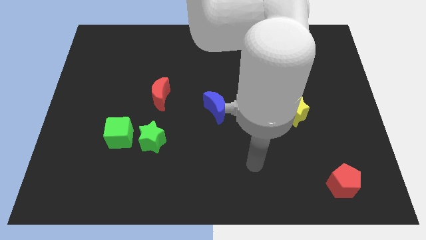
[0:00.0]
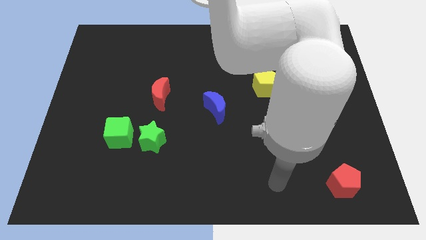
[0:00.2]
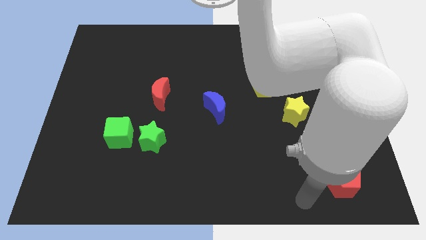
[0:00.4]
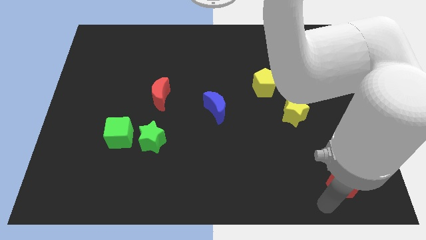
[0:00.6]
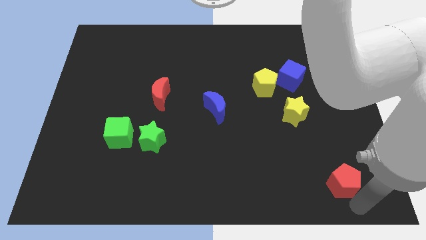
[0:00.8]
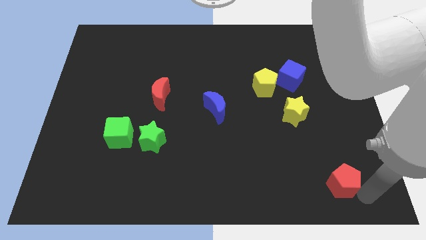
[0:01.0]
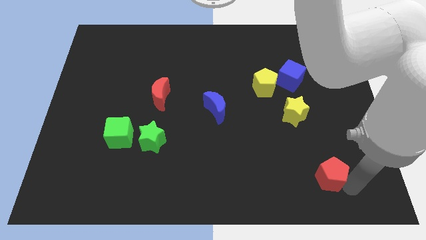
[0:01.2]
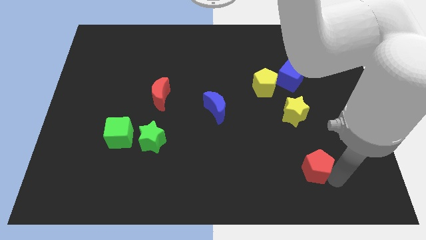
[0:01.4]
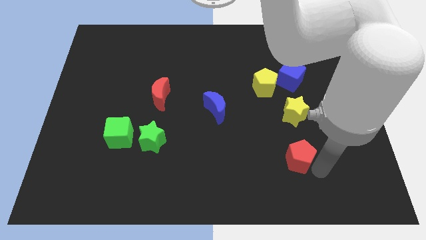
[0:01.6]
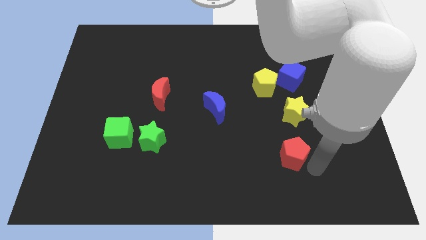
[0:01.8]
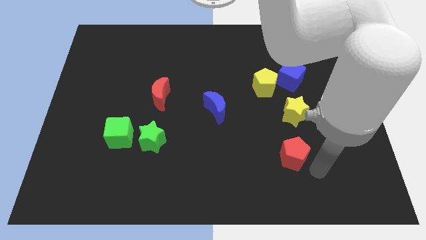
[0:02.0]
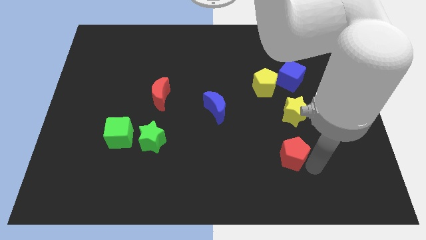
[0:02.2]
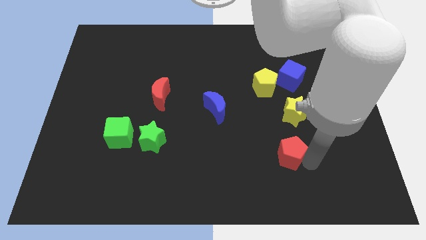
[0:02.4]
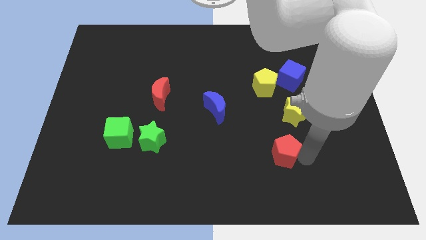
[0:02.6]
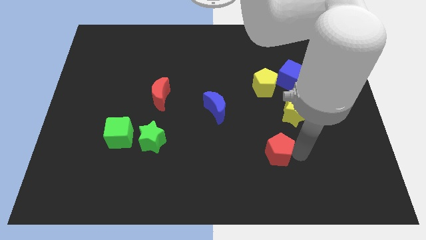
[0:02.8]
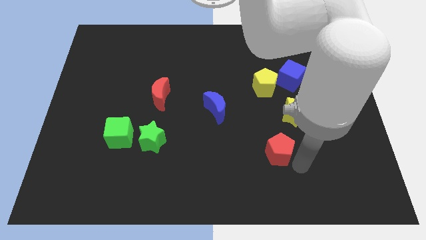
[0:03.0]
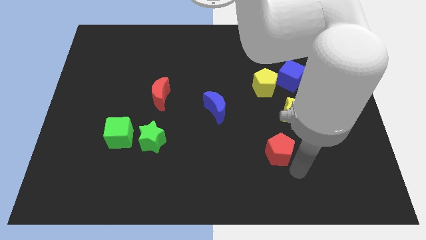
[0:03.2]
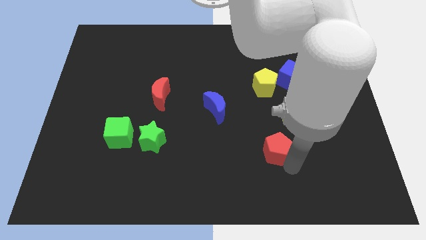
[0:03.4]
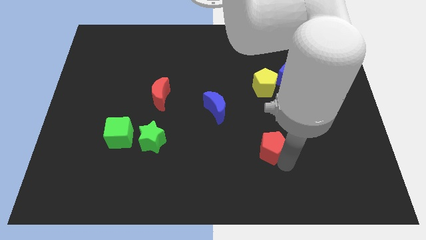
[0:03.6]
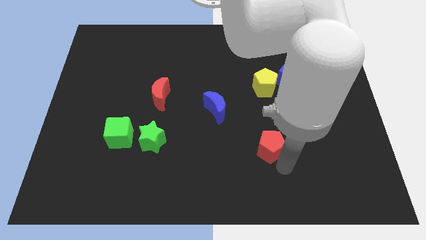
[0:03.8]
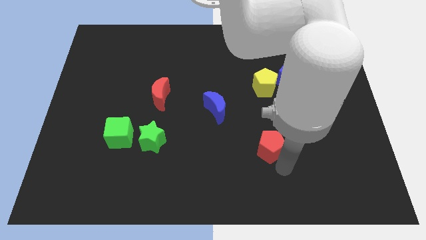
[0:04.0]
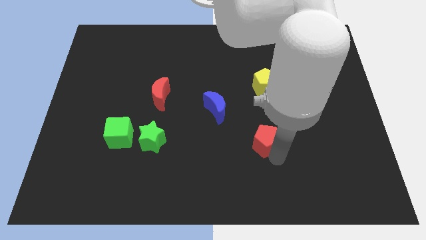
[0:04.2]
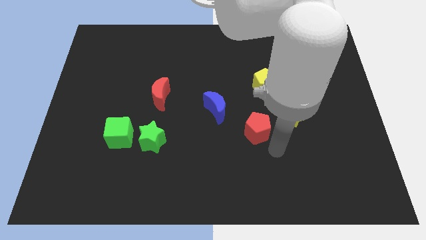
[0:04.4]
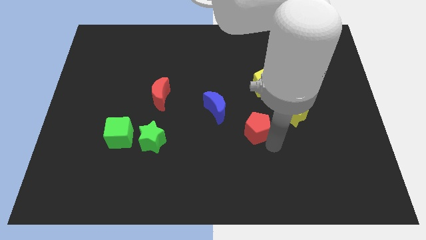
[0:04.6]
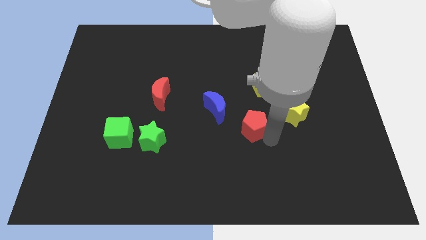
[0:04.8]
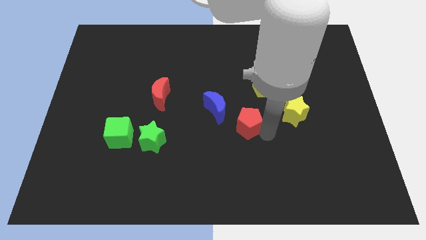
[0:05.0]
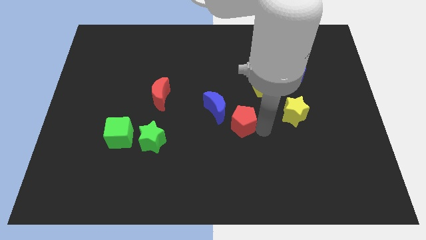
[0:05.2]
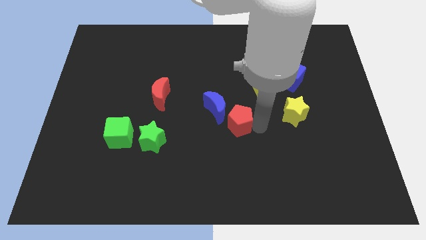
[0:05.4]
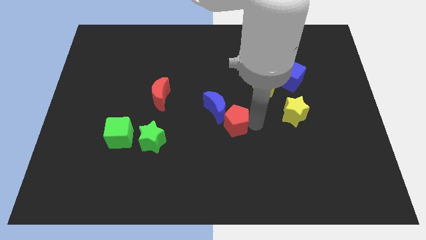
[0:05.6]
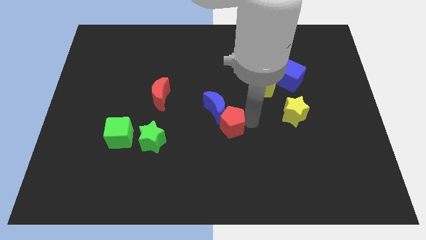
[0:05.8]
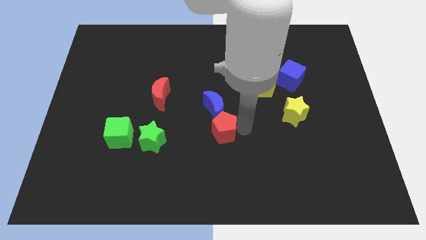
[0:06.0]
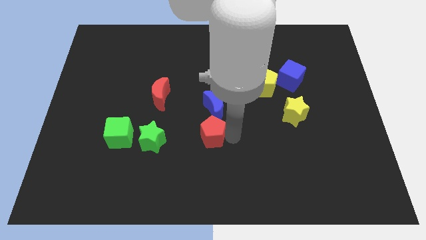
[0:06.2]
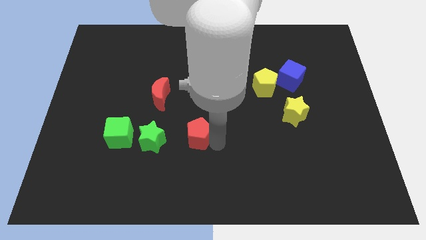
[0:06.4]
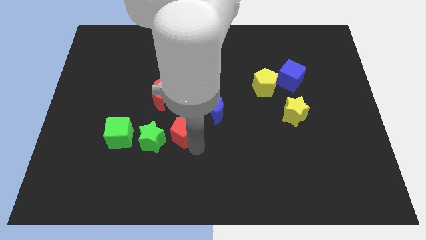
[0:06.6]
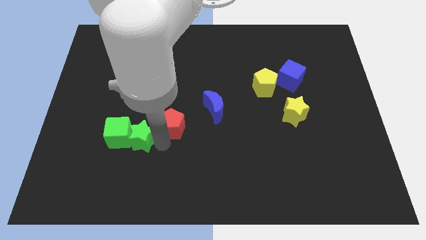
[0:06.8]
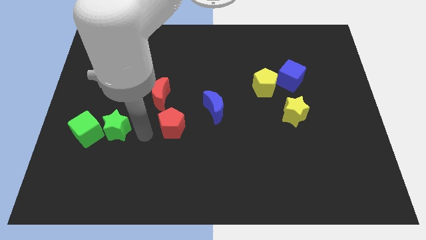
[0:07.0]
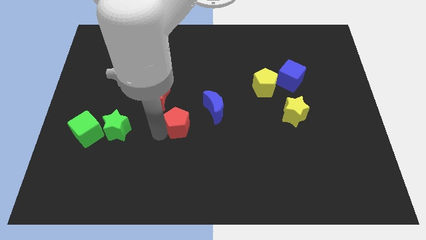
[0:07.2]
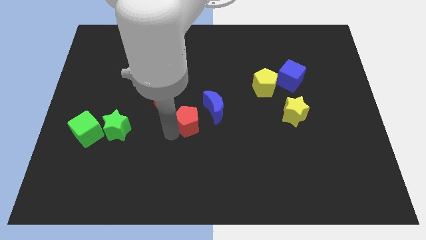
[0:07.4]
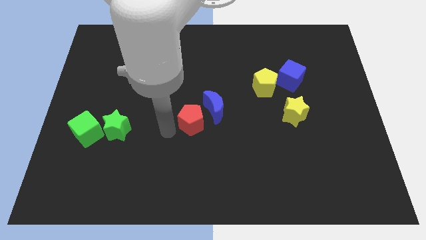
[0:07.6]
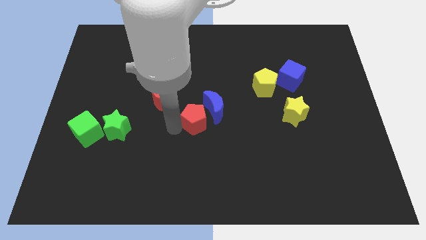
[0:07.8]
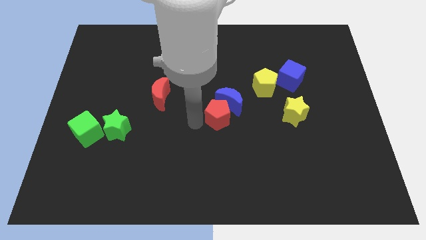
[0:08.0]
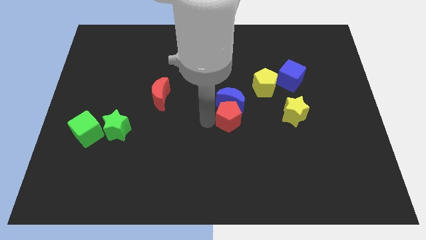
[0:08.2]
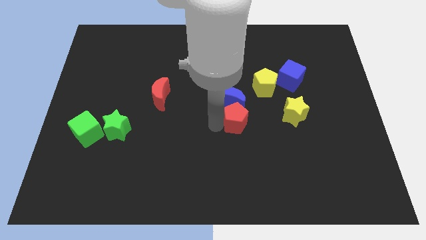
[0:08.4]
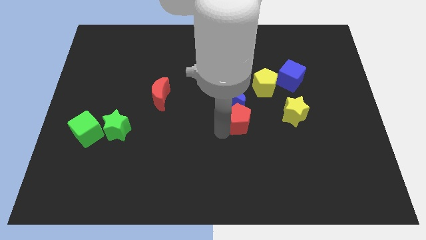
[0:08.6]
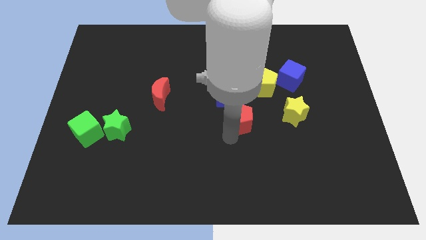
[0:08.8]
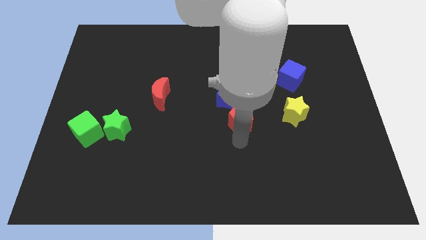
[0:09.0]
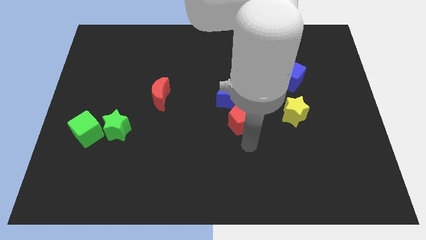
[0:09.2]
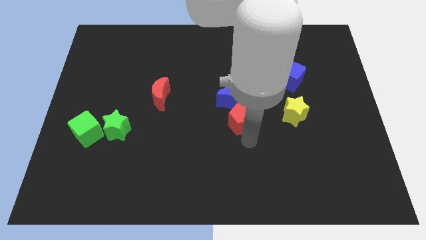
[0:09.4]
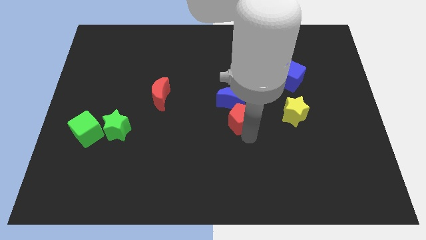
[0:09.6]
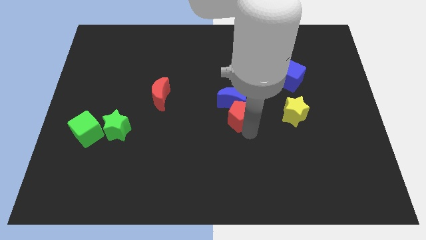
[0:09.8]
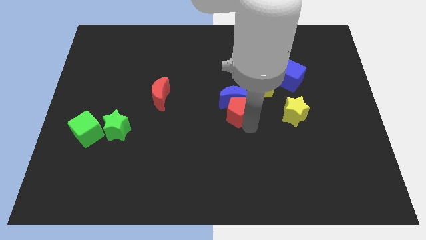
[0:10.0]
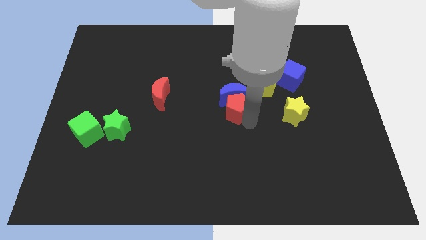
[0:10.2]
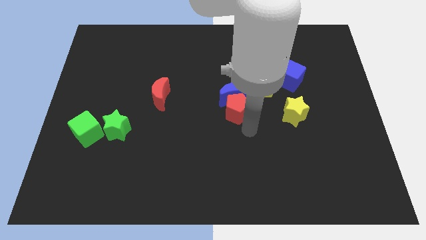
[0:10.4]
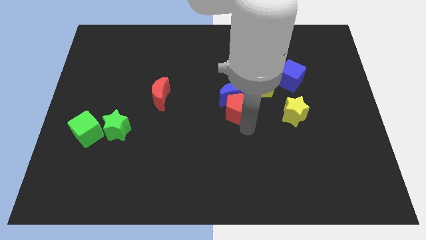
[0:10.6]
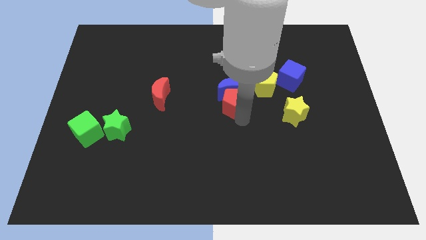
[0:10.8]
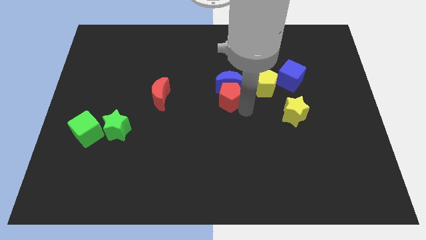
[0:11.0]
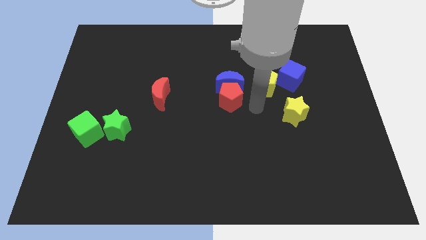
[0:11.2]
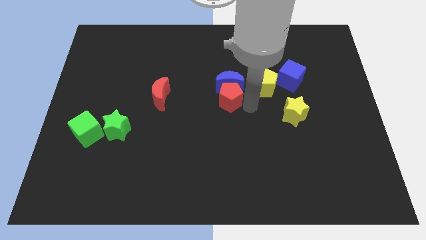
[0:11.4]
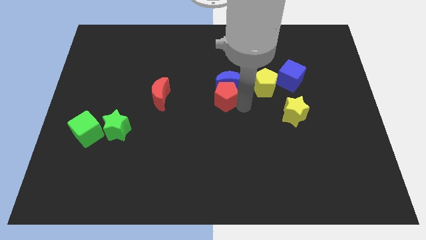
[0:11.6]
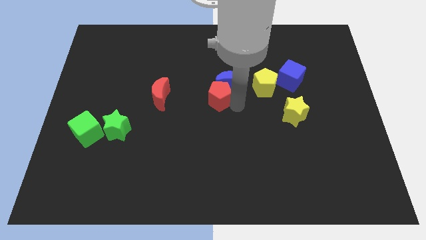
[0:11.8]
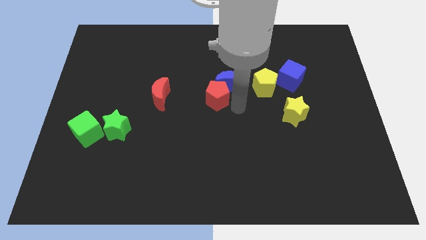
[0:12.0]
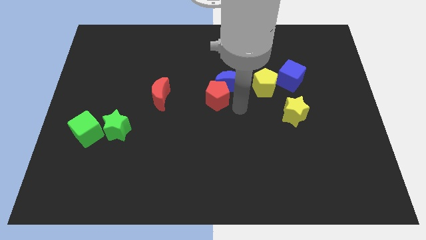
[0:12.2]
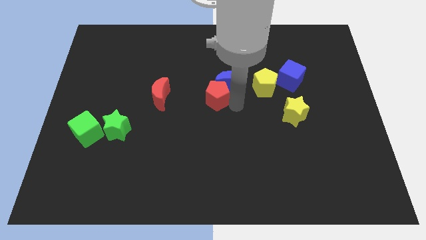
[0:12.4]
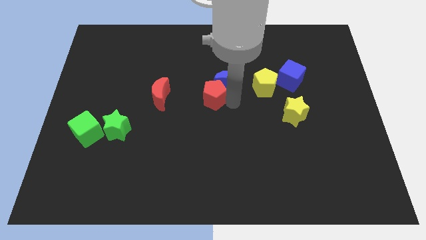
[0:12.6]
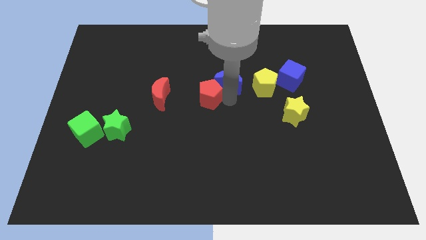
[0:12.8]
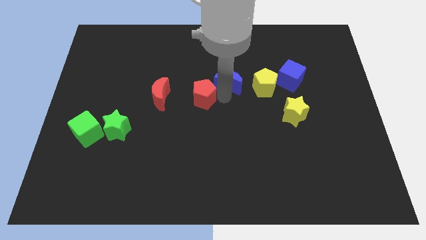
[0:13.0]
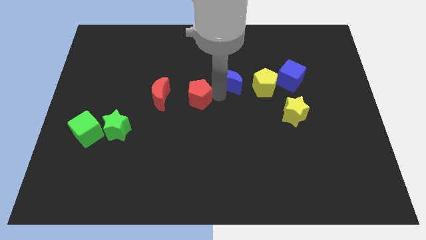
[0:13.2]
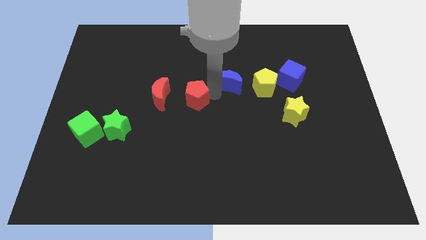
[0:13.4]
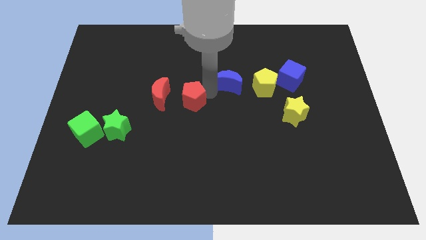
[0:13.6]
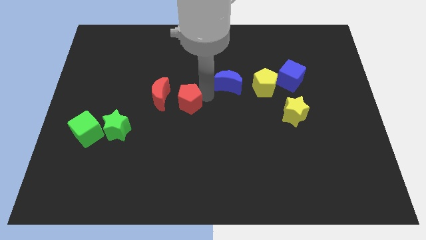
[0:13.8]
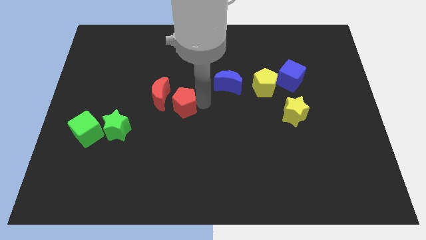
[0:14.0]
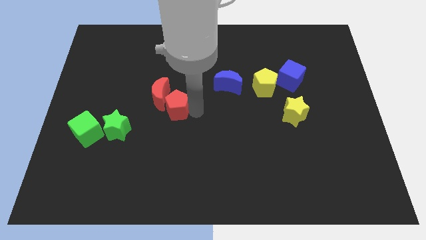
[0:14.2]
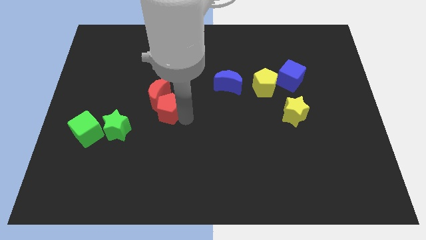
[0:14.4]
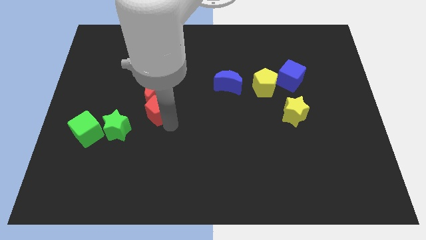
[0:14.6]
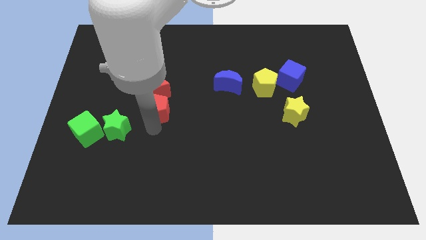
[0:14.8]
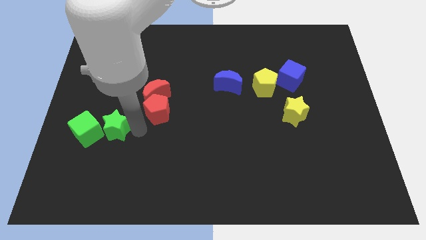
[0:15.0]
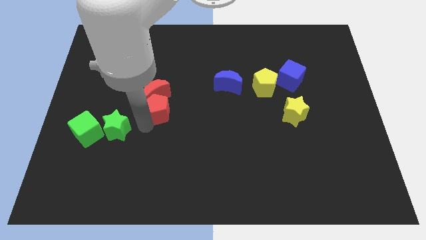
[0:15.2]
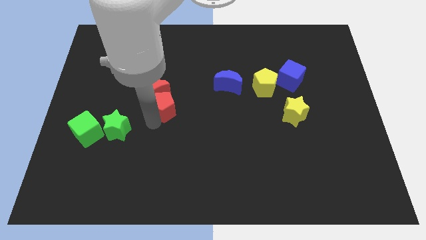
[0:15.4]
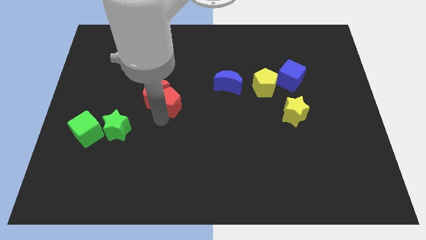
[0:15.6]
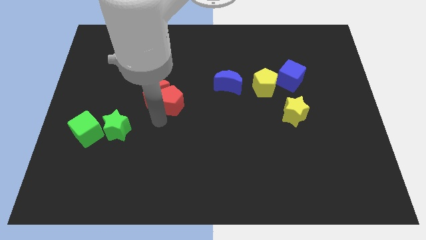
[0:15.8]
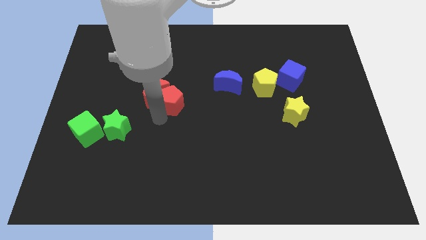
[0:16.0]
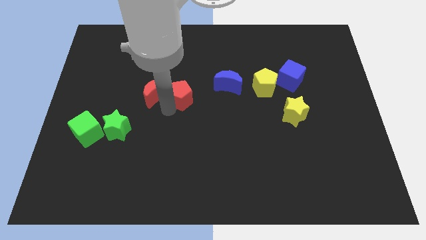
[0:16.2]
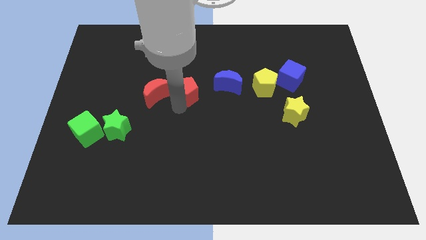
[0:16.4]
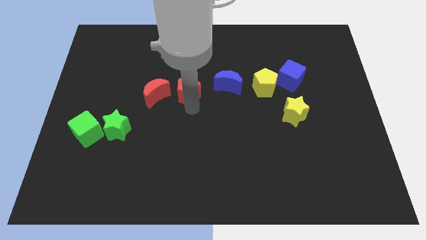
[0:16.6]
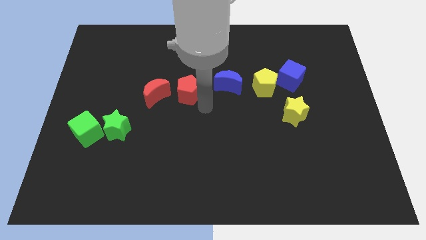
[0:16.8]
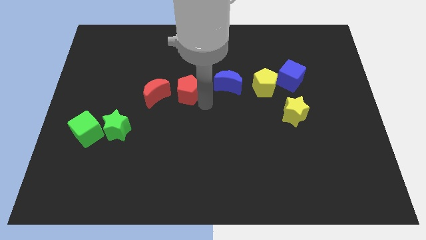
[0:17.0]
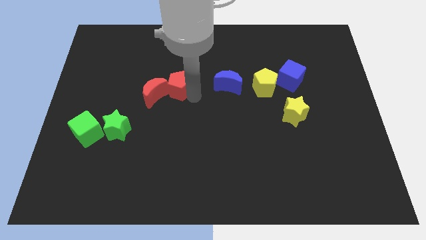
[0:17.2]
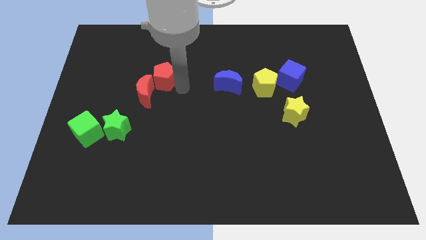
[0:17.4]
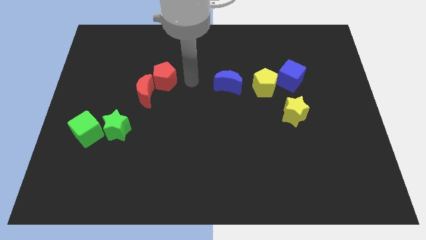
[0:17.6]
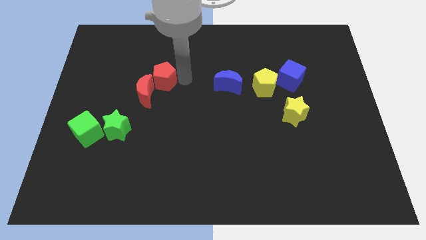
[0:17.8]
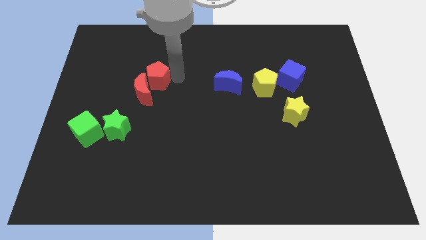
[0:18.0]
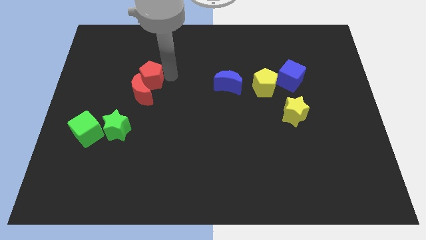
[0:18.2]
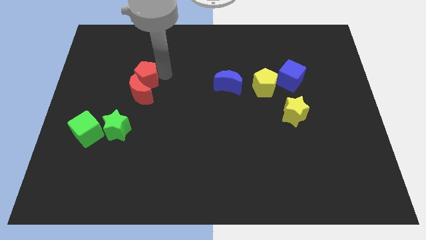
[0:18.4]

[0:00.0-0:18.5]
slide the red pentagon to the top left of the red moon
